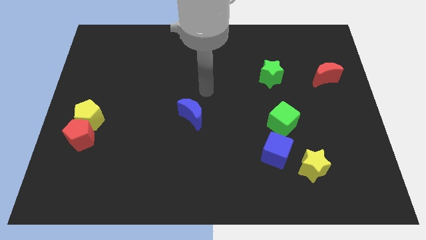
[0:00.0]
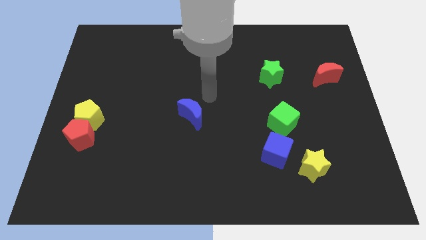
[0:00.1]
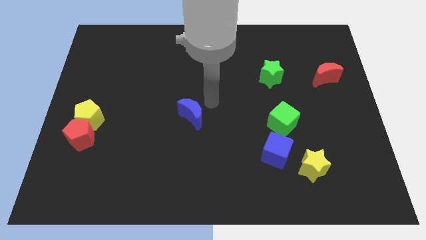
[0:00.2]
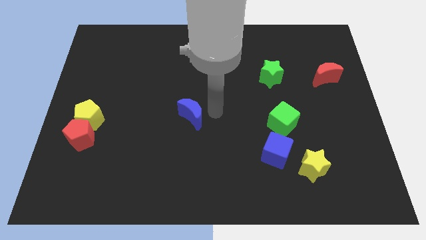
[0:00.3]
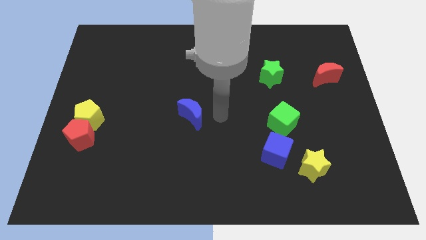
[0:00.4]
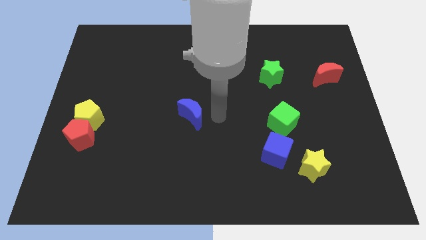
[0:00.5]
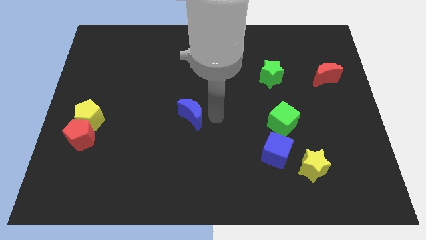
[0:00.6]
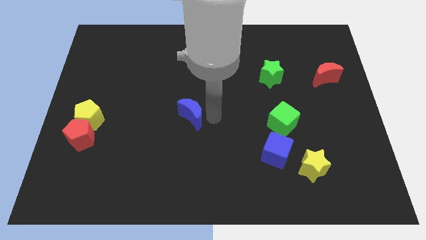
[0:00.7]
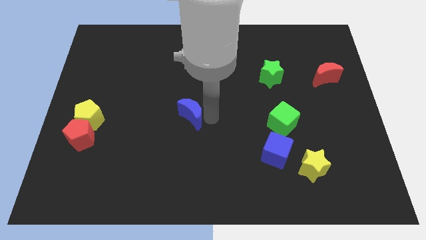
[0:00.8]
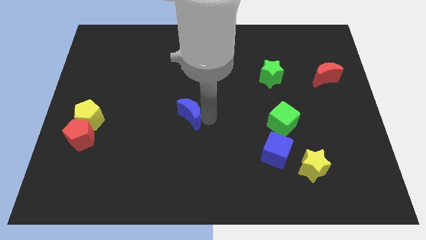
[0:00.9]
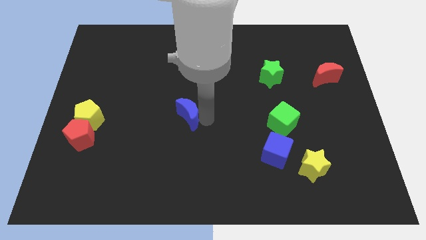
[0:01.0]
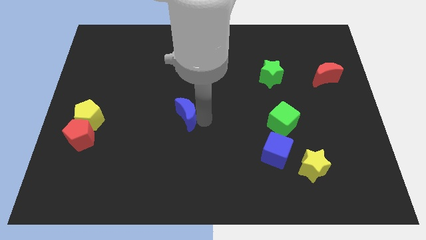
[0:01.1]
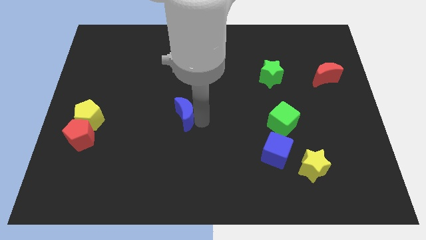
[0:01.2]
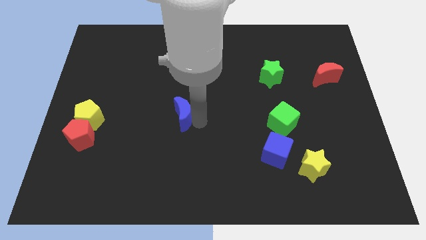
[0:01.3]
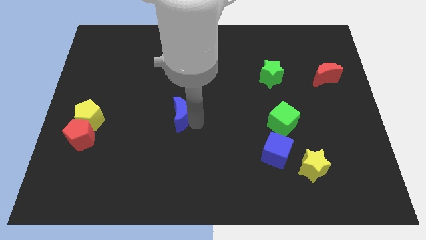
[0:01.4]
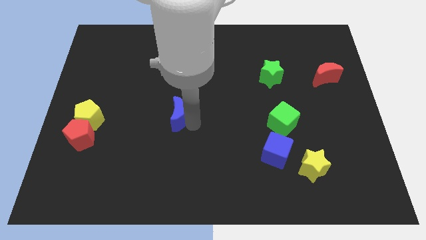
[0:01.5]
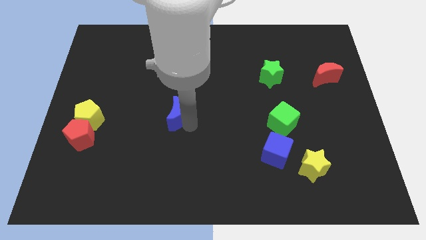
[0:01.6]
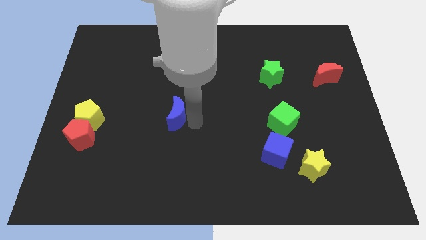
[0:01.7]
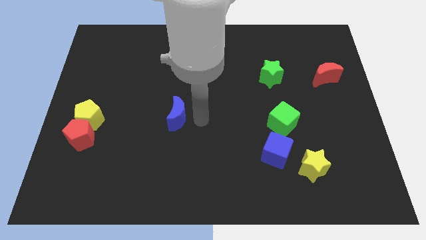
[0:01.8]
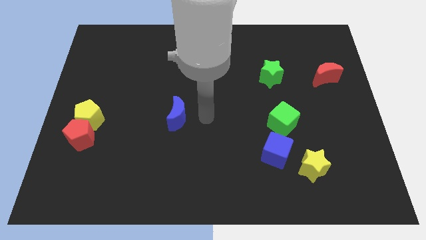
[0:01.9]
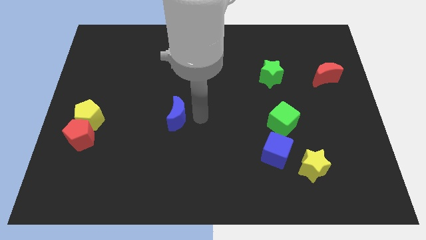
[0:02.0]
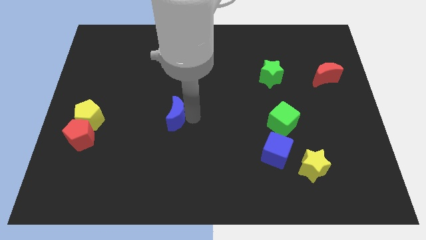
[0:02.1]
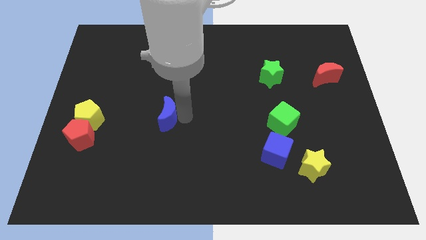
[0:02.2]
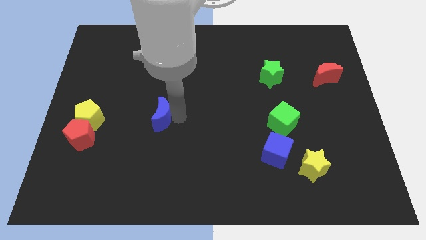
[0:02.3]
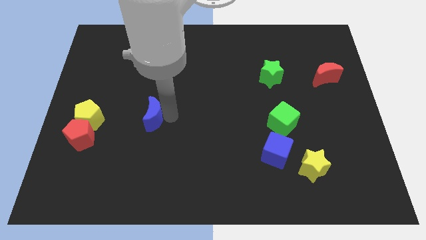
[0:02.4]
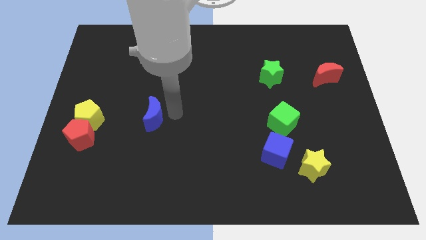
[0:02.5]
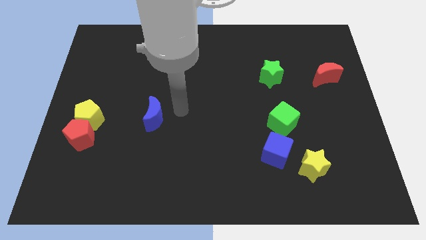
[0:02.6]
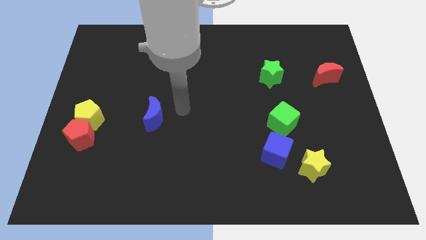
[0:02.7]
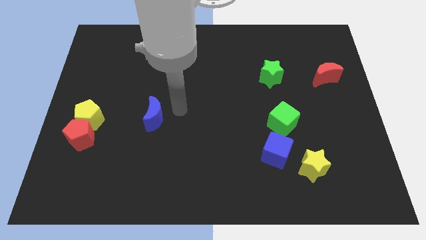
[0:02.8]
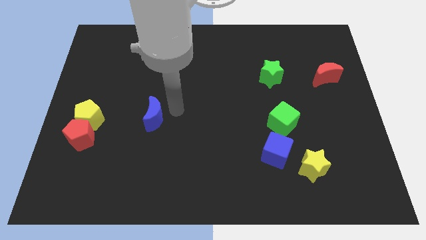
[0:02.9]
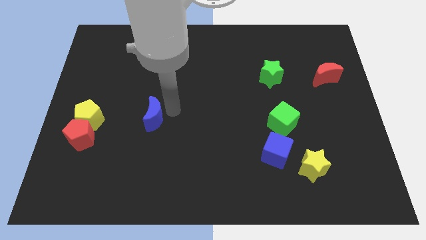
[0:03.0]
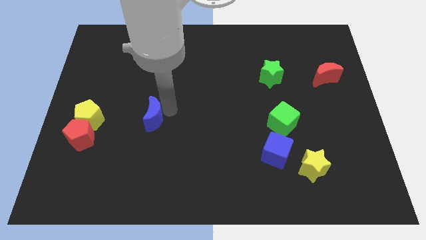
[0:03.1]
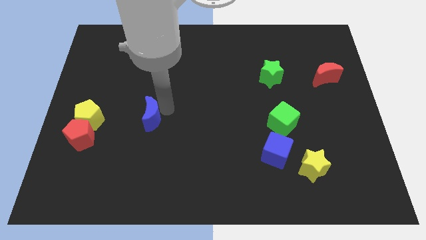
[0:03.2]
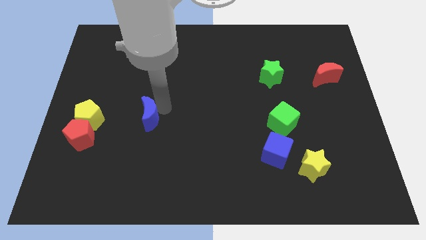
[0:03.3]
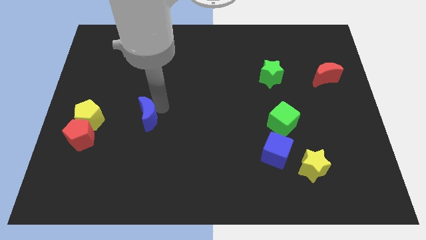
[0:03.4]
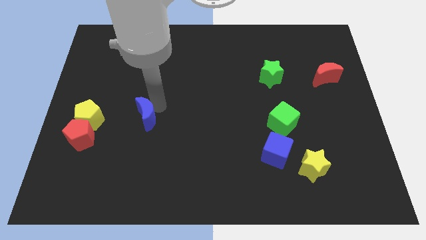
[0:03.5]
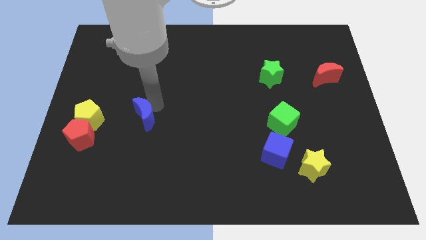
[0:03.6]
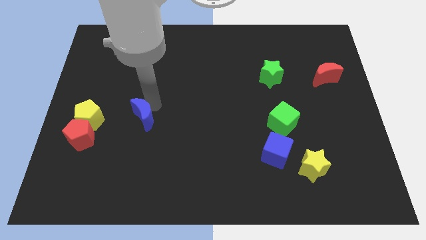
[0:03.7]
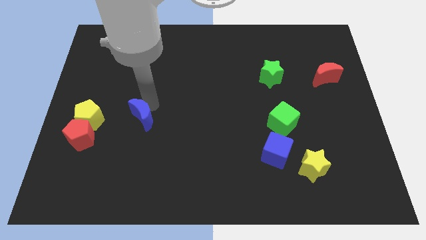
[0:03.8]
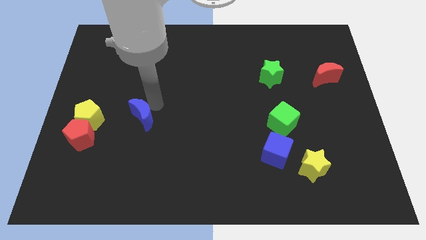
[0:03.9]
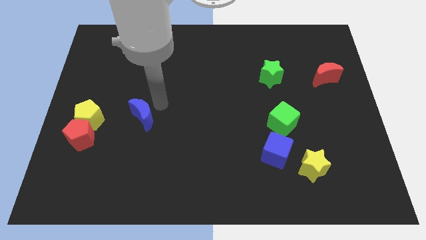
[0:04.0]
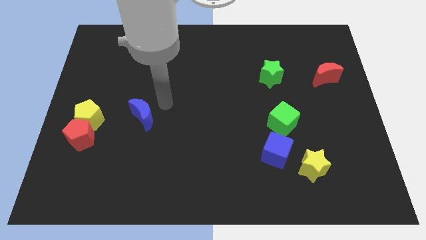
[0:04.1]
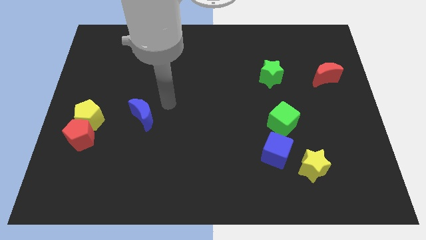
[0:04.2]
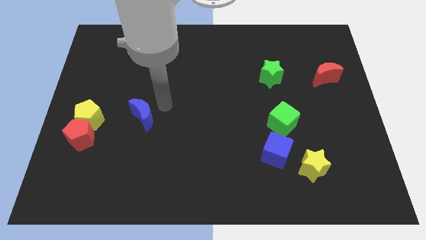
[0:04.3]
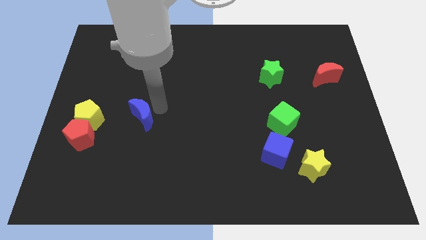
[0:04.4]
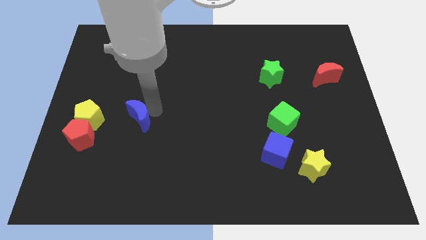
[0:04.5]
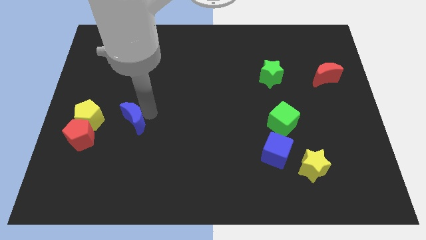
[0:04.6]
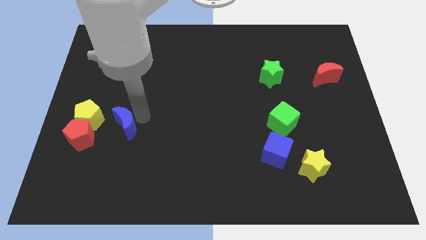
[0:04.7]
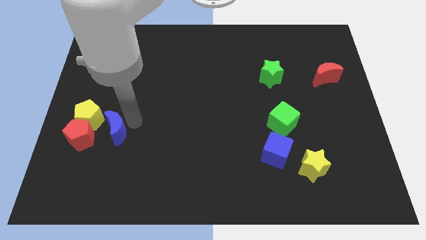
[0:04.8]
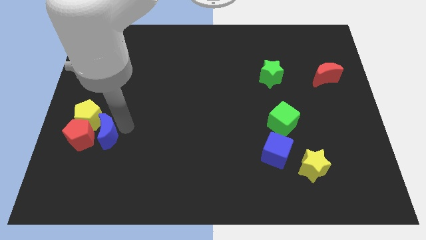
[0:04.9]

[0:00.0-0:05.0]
push the blue moon towards the red pentagon

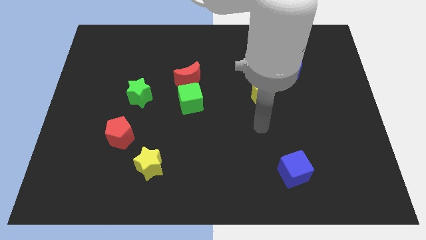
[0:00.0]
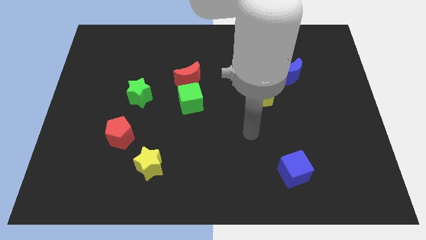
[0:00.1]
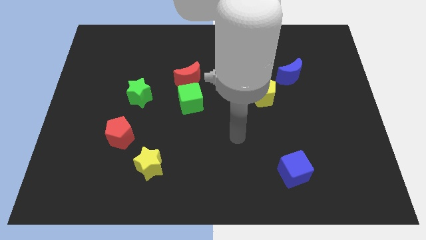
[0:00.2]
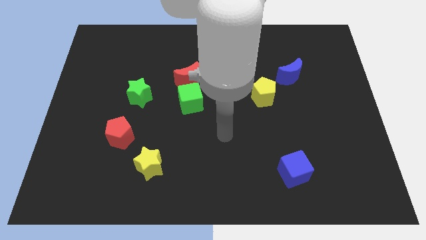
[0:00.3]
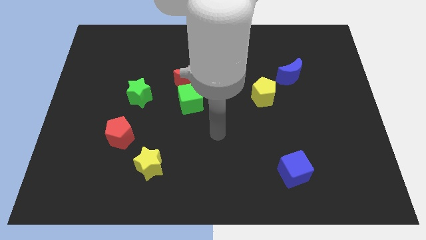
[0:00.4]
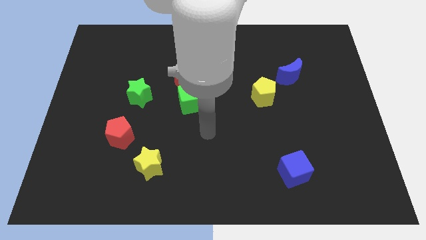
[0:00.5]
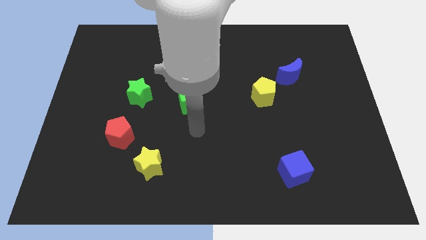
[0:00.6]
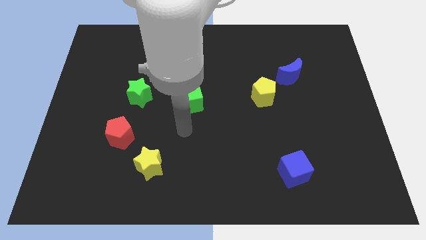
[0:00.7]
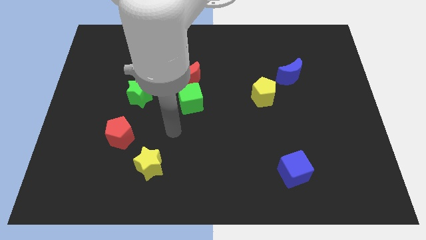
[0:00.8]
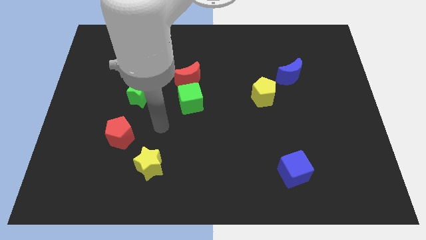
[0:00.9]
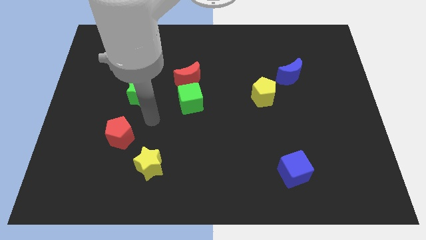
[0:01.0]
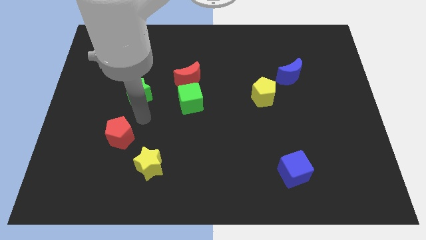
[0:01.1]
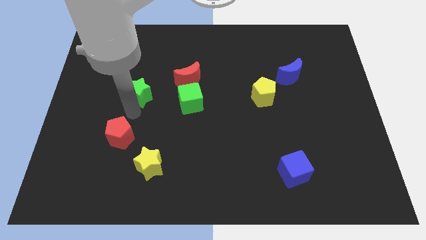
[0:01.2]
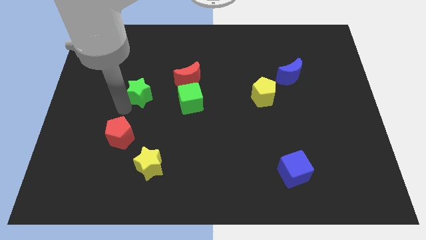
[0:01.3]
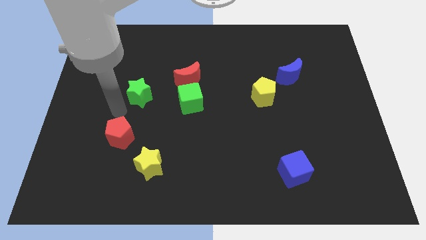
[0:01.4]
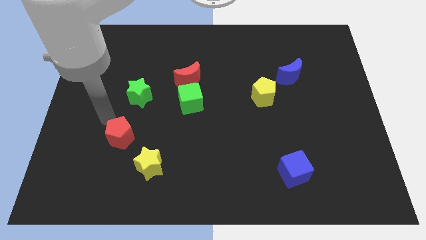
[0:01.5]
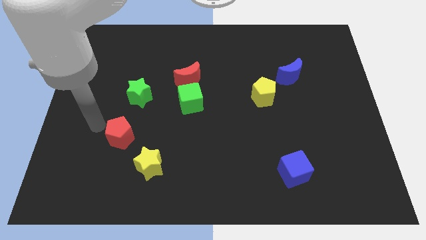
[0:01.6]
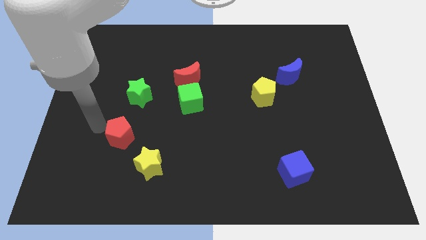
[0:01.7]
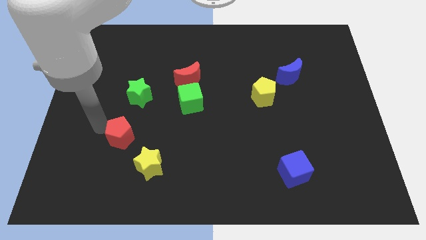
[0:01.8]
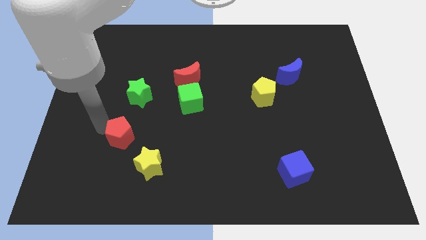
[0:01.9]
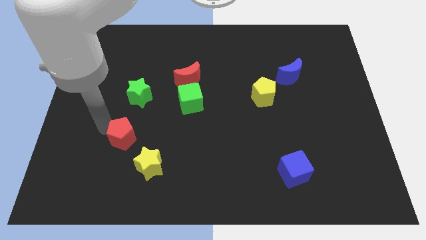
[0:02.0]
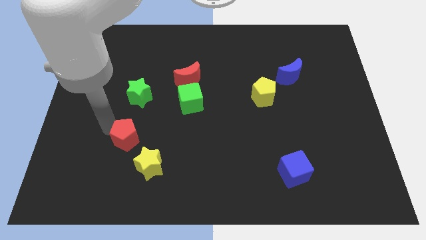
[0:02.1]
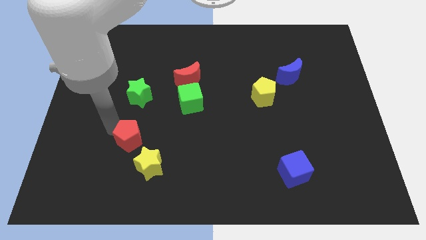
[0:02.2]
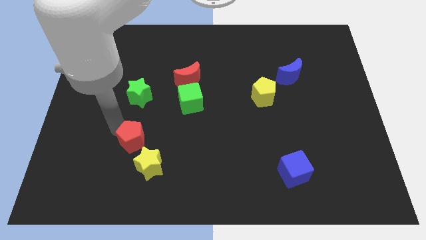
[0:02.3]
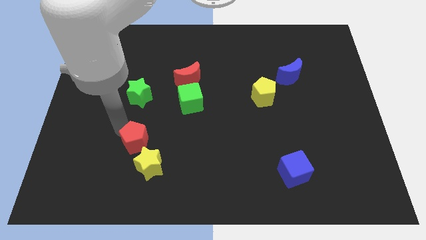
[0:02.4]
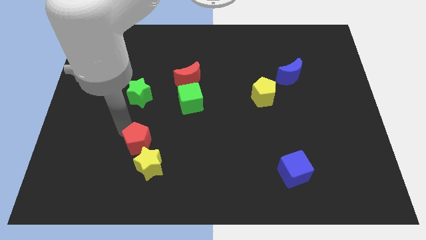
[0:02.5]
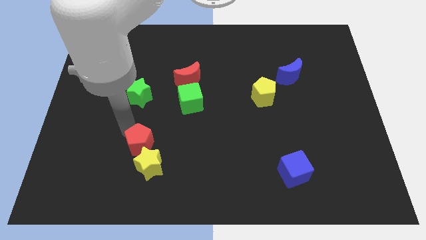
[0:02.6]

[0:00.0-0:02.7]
move the red pentagon towards the yellow star
